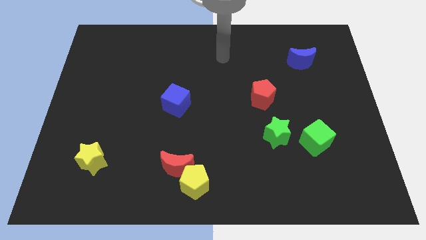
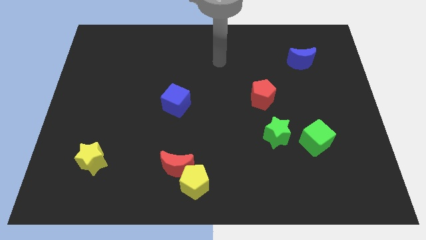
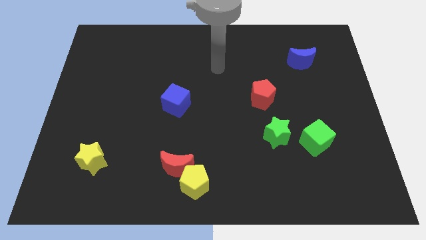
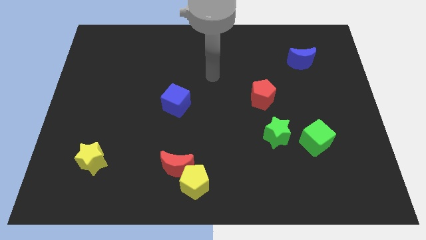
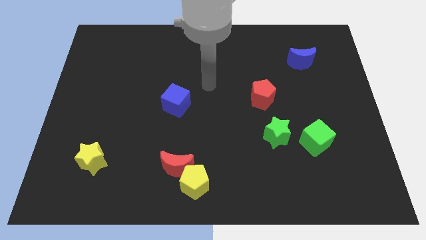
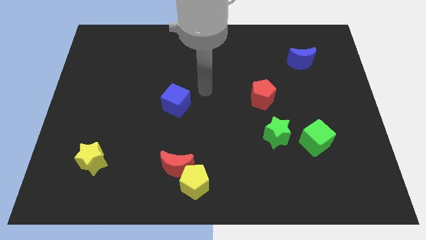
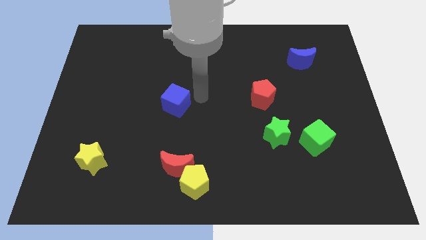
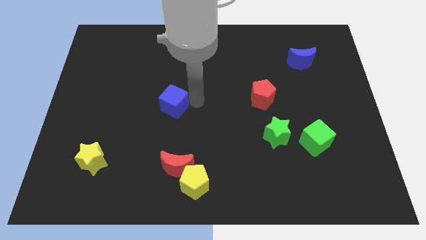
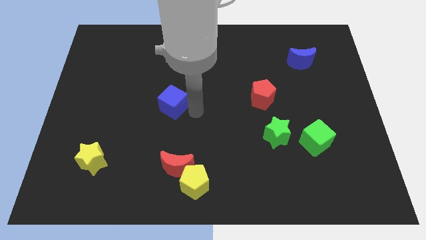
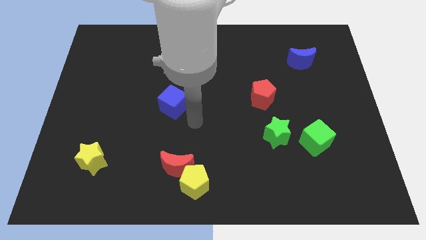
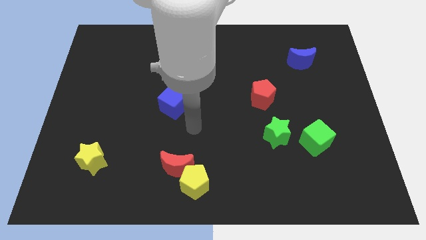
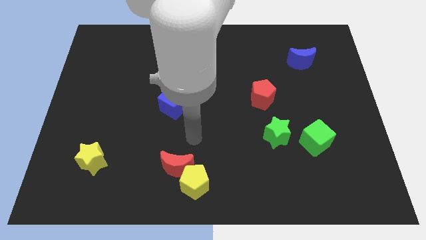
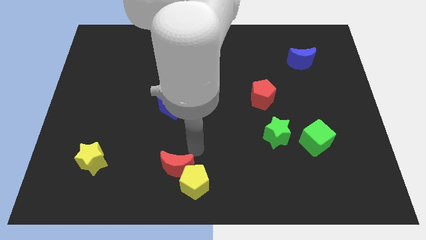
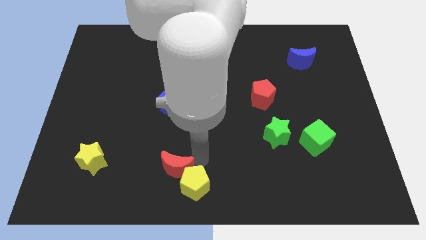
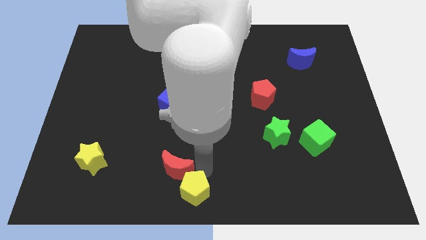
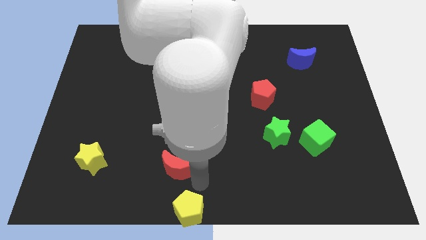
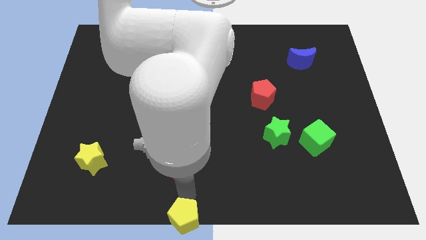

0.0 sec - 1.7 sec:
move the red moon away from the yellow pentagon

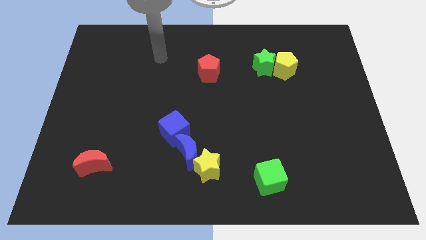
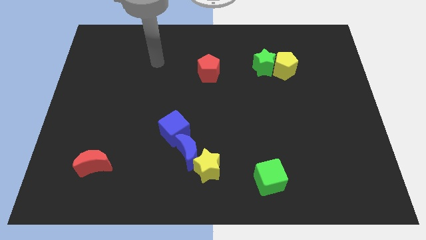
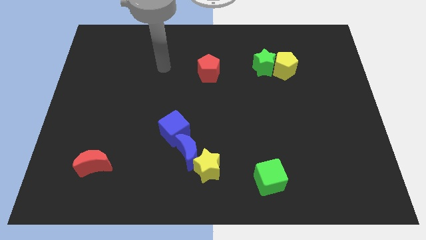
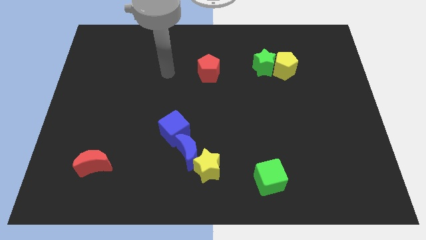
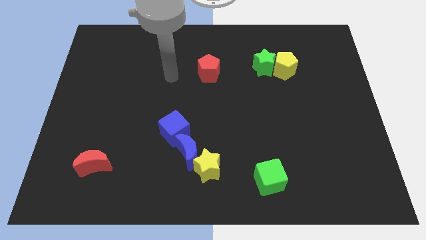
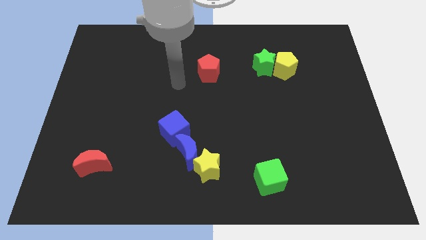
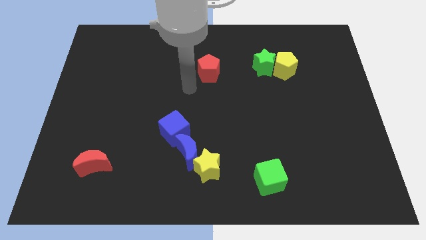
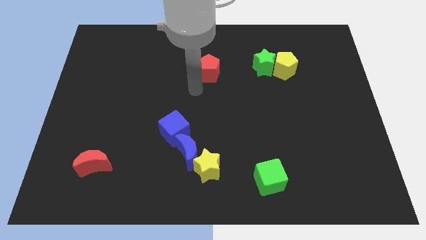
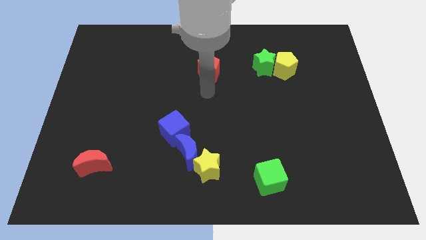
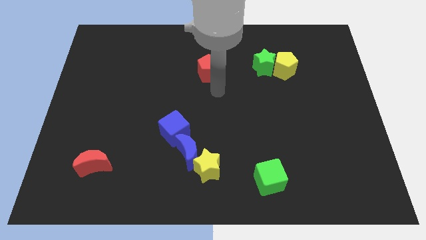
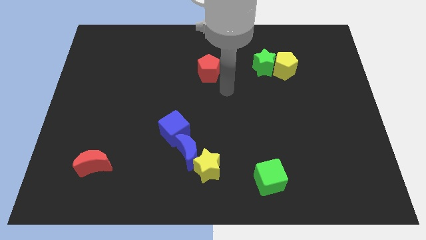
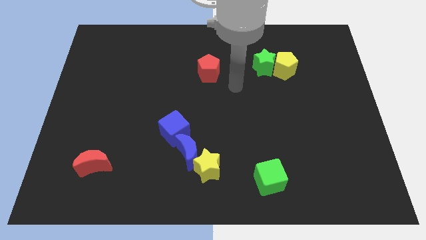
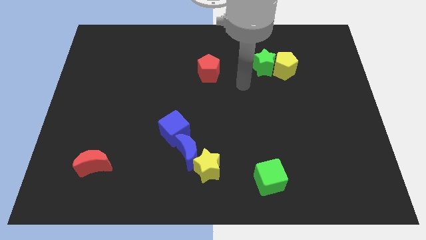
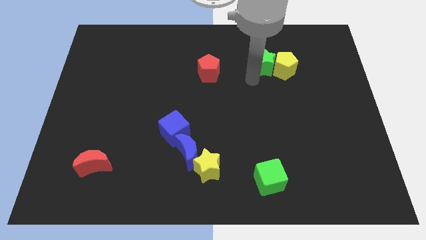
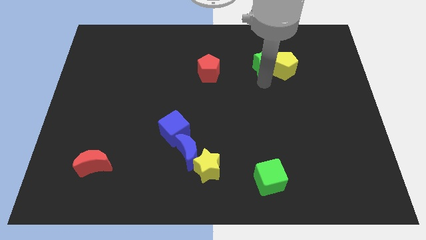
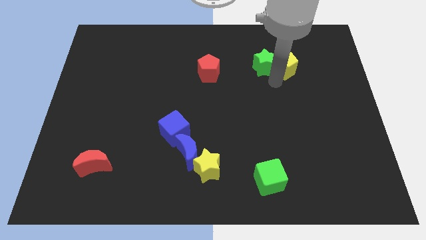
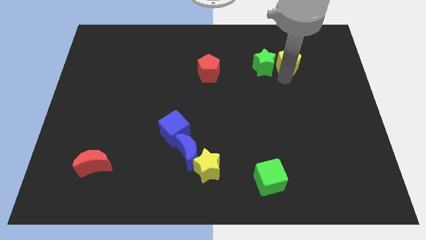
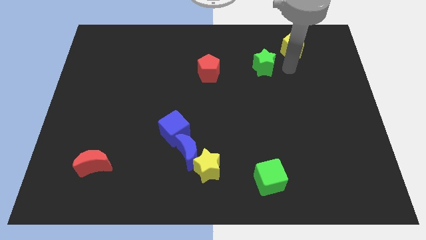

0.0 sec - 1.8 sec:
move the green star away from the yellow pentagon

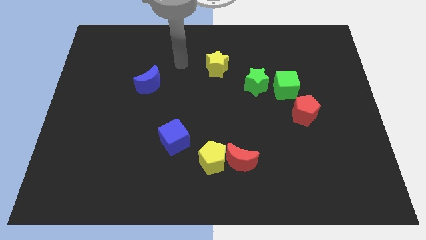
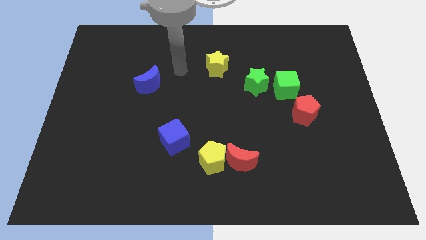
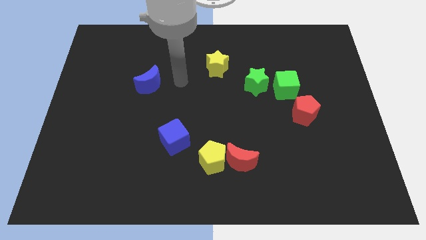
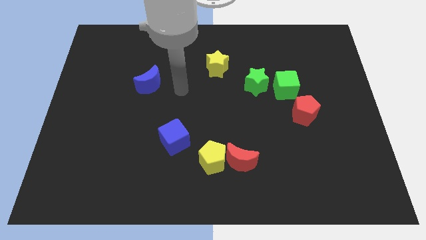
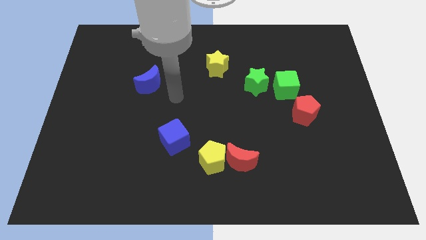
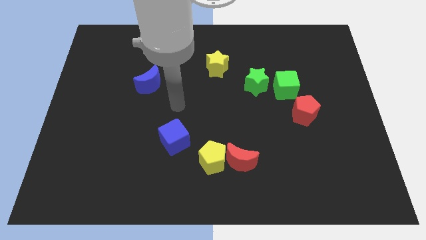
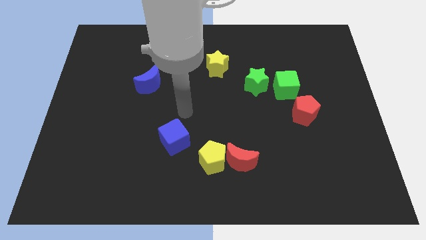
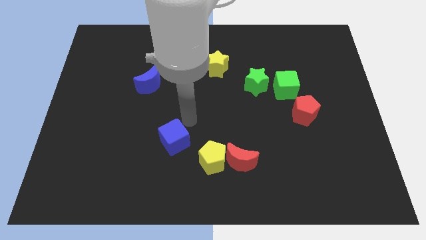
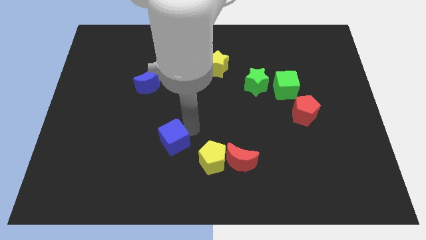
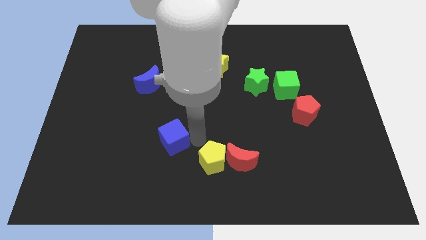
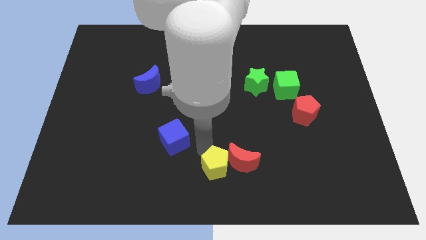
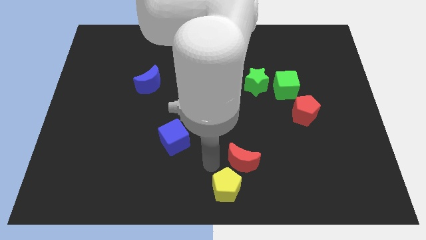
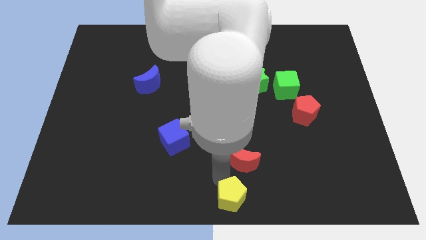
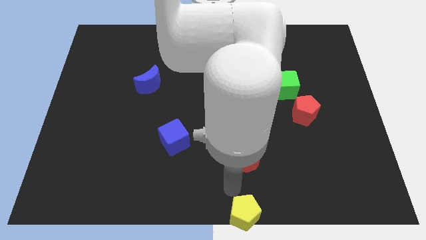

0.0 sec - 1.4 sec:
pull the red moon apart from the yellow pentagon

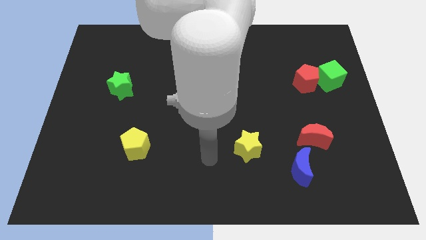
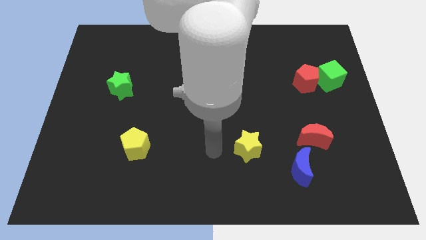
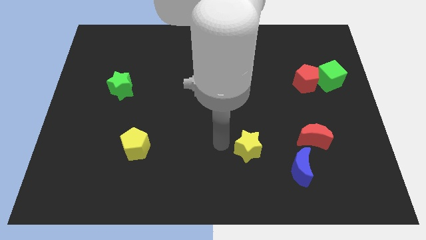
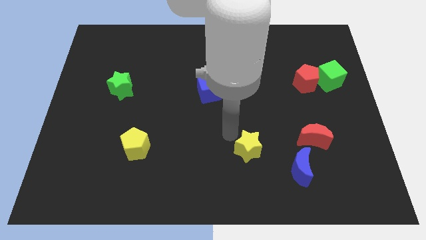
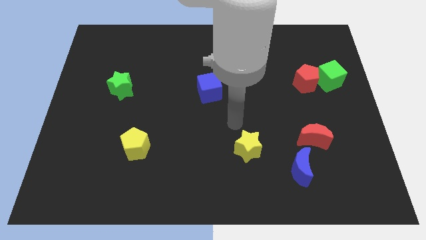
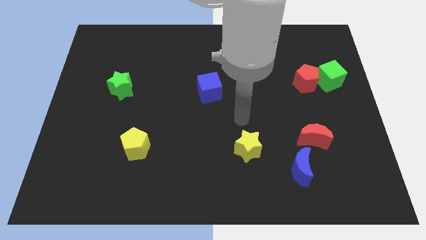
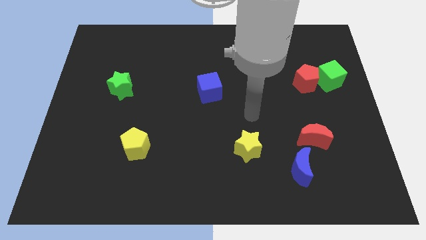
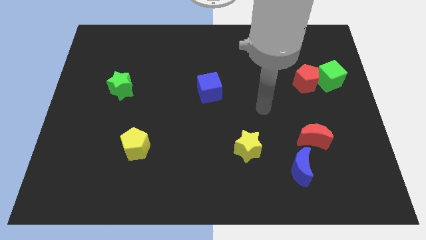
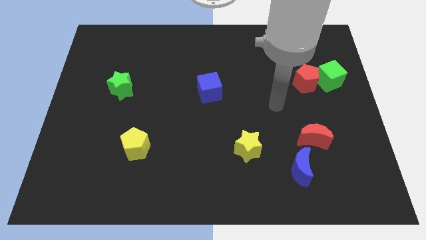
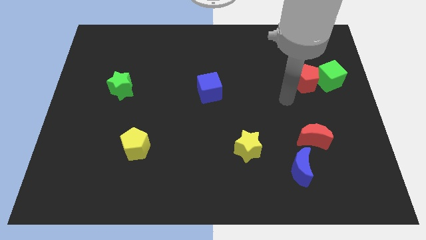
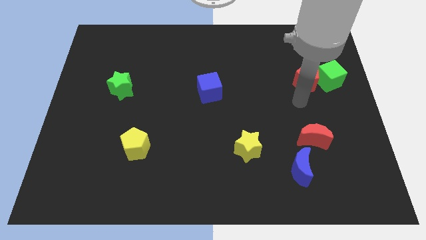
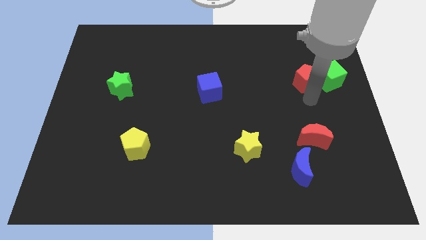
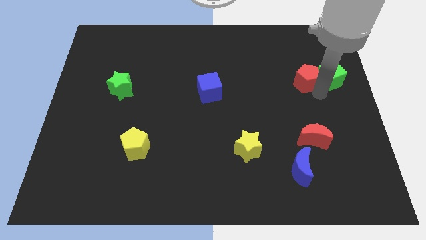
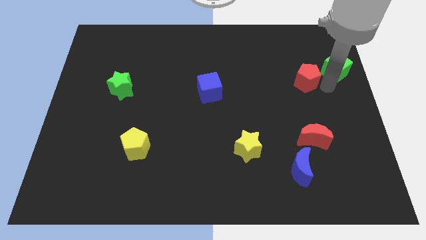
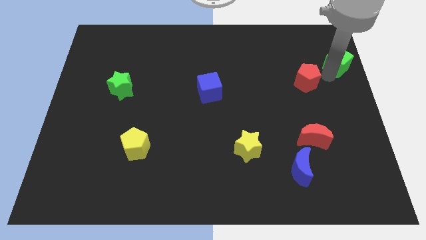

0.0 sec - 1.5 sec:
pull the red pentagon apart from the green cube

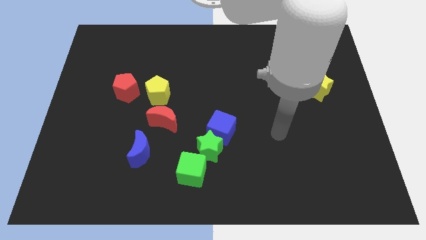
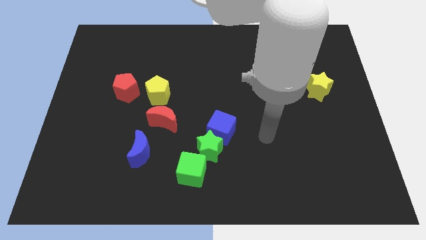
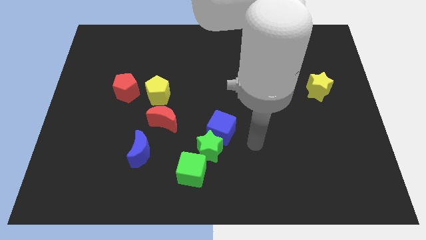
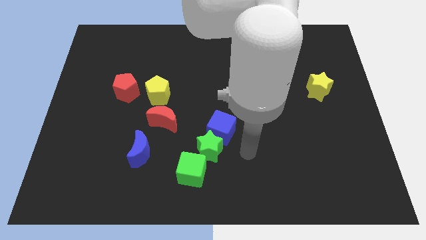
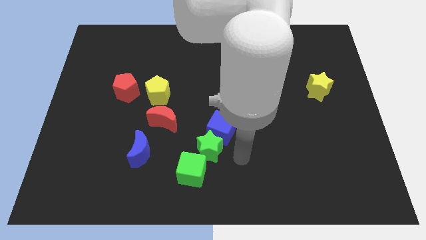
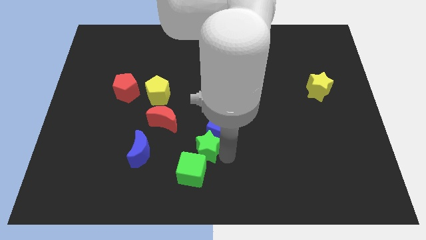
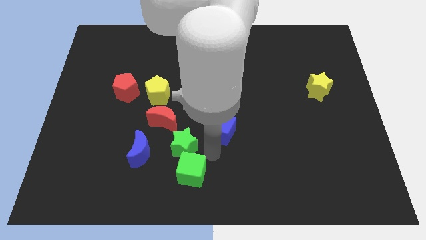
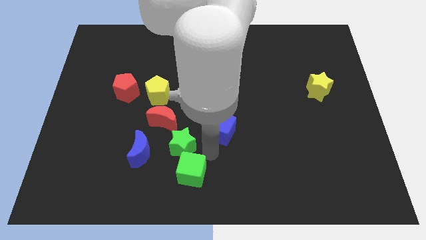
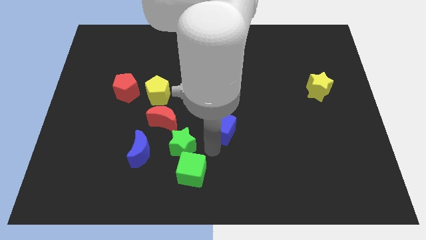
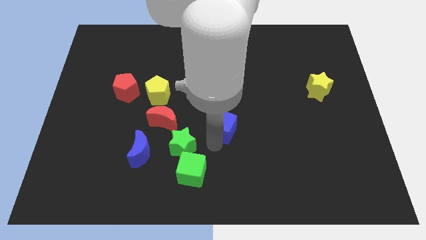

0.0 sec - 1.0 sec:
separate the blue cube from the green star

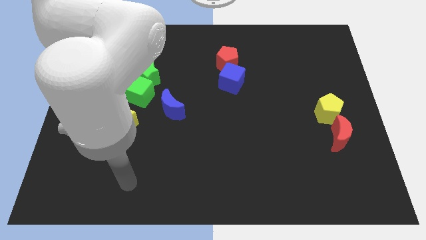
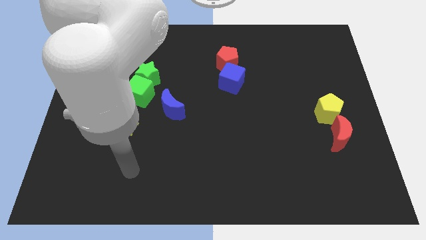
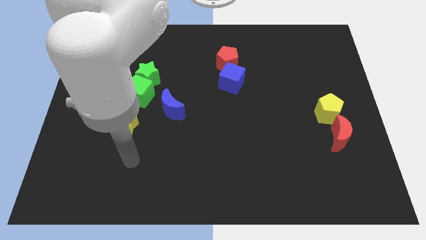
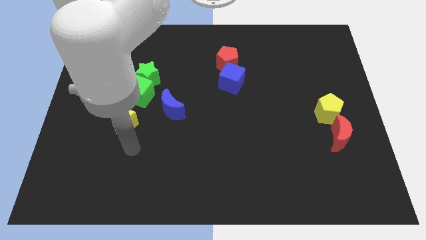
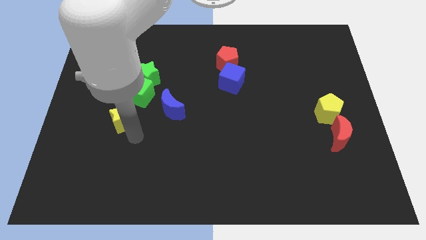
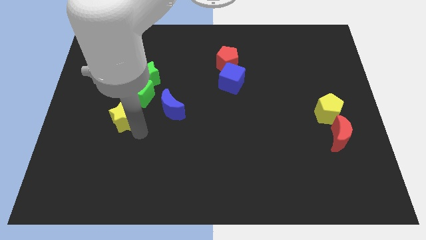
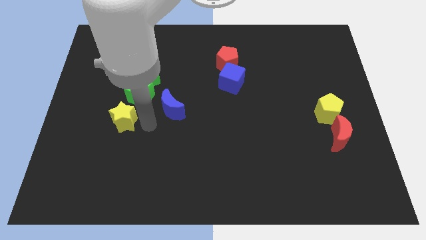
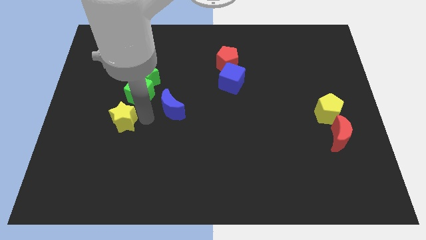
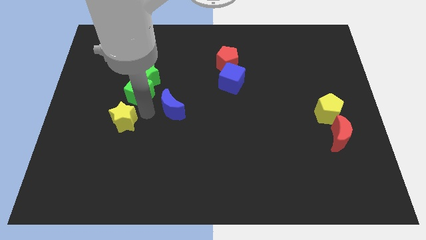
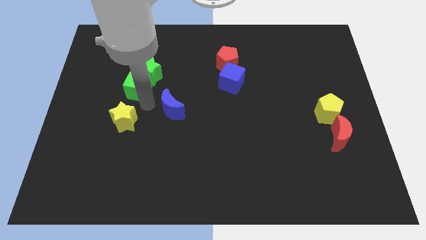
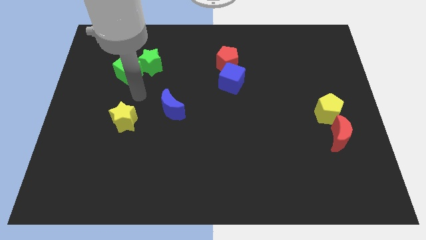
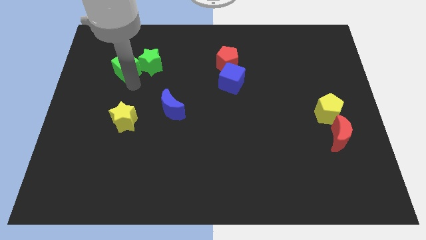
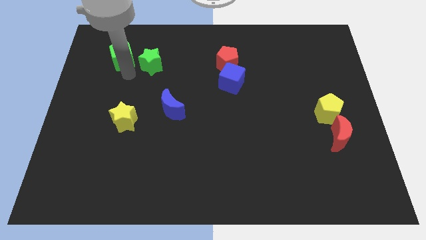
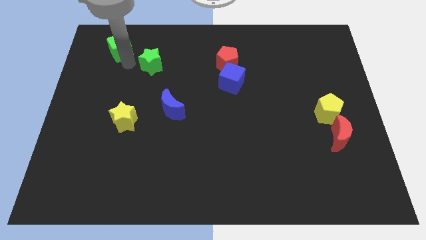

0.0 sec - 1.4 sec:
separate the green star from the green cube

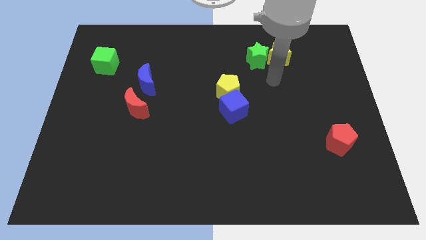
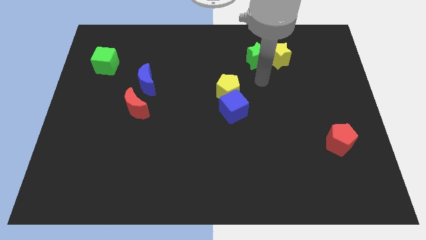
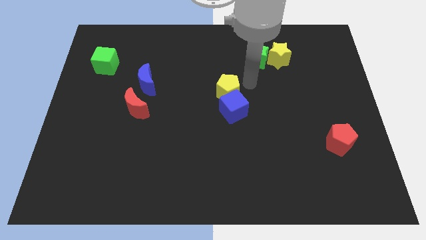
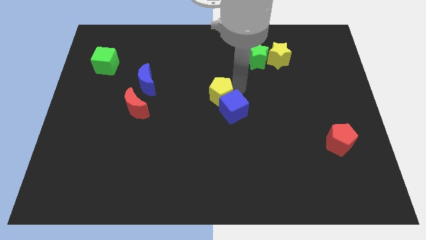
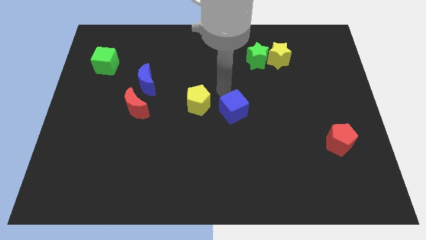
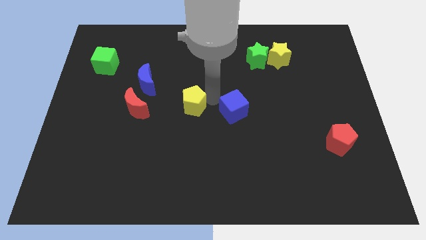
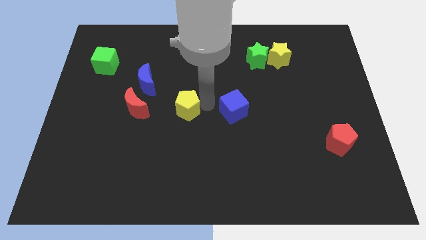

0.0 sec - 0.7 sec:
pull the blue cube apart from the yellow pentagon
